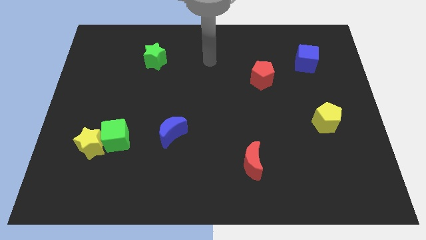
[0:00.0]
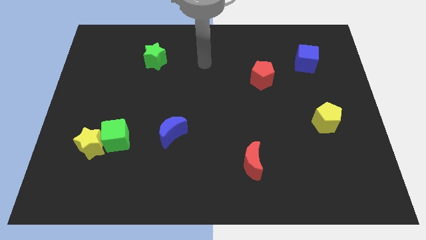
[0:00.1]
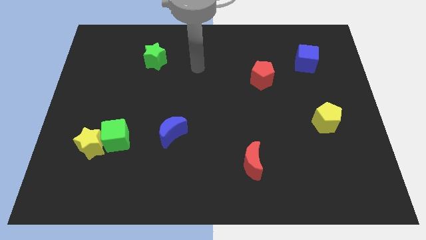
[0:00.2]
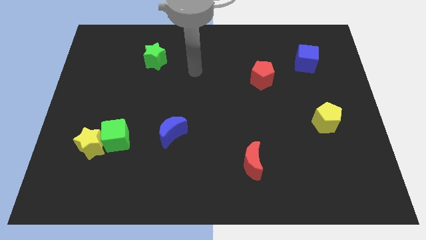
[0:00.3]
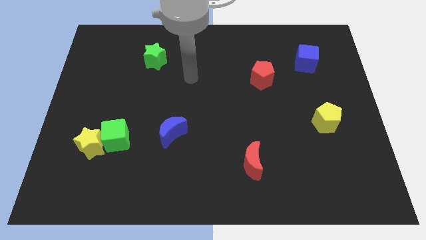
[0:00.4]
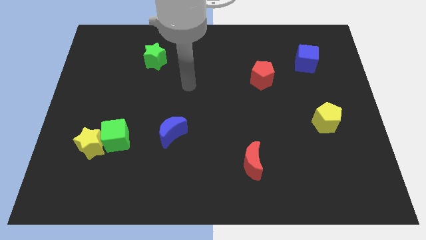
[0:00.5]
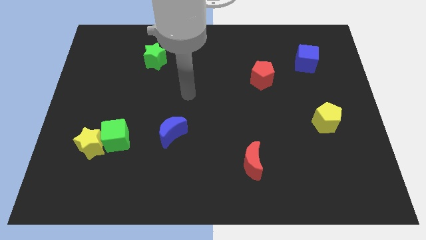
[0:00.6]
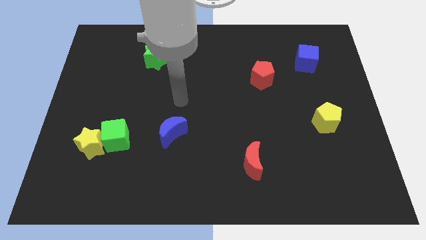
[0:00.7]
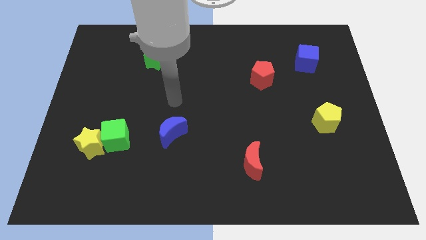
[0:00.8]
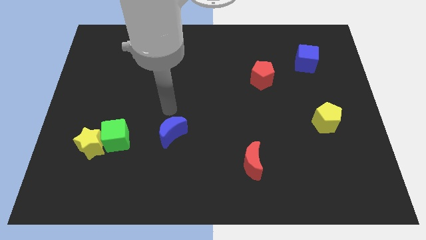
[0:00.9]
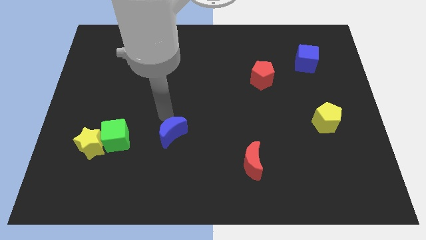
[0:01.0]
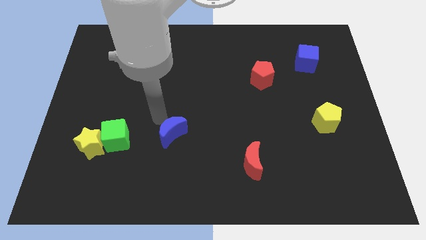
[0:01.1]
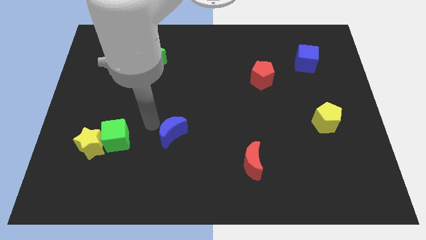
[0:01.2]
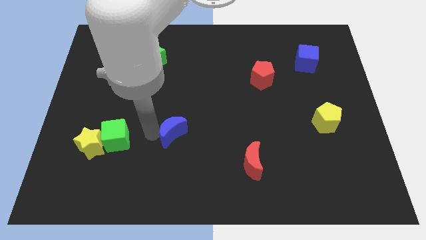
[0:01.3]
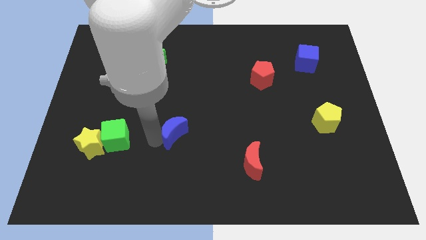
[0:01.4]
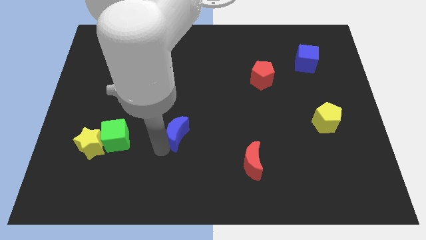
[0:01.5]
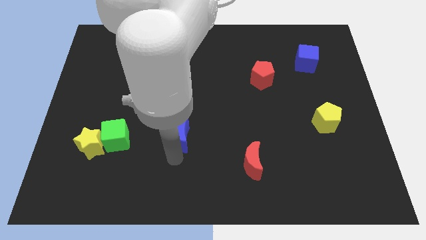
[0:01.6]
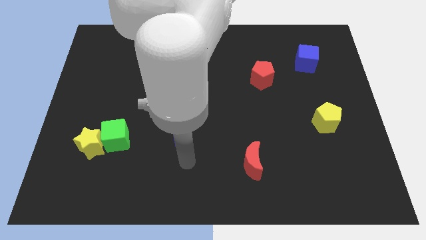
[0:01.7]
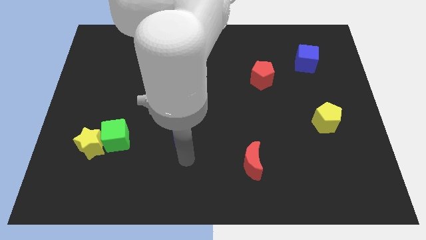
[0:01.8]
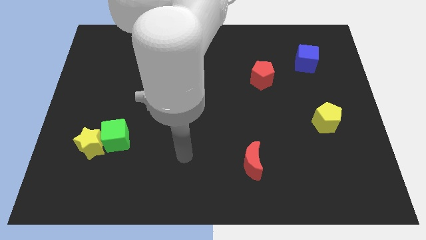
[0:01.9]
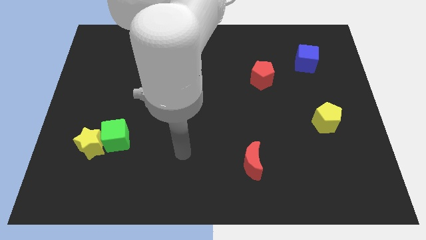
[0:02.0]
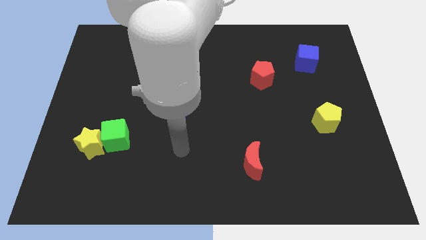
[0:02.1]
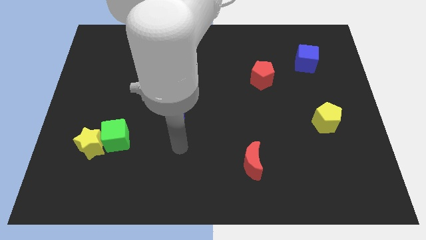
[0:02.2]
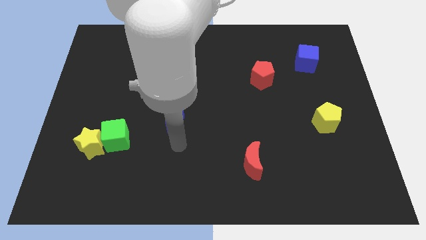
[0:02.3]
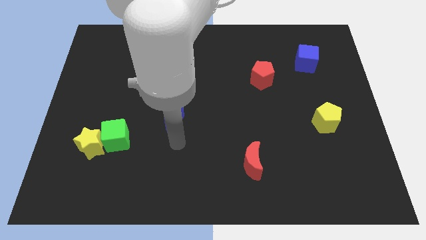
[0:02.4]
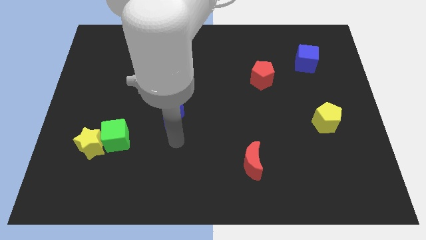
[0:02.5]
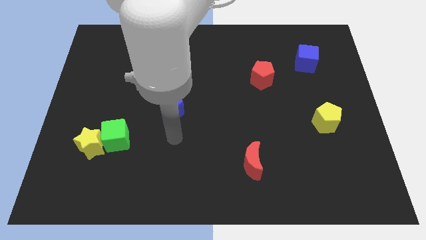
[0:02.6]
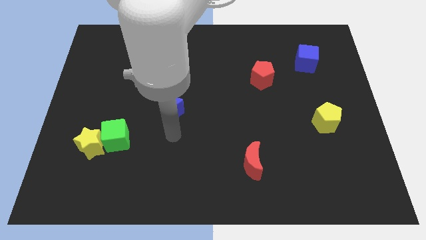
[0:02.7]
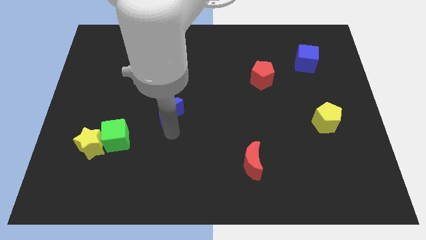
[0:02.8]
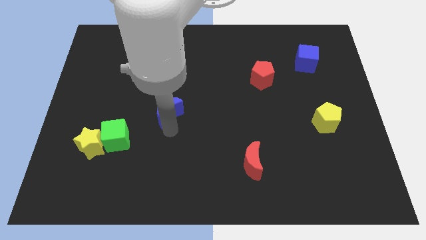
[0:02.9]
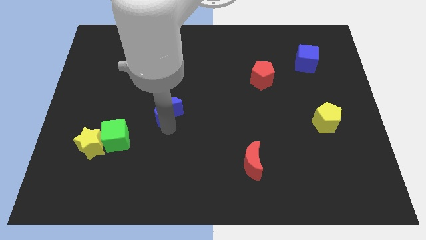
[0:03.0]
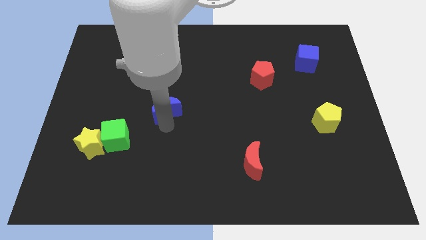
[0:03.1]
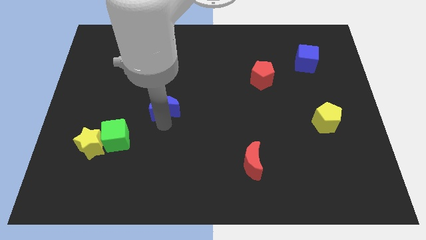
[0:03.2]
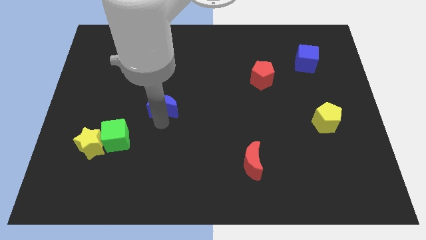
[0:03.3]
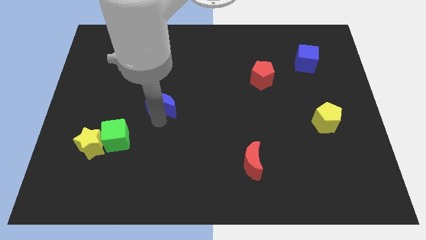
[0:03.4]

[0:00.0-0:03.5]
slide the blue moon a little upwards

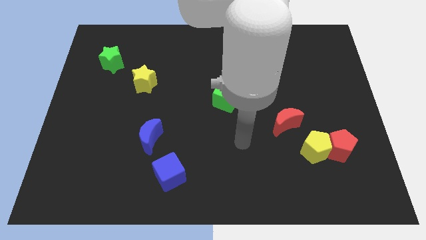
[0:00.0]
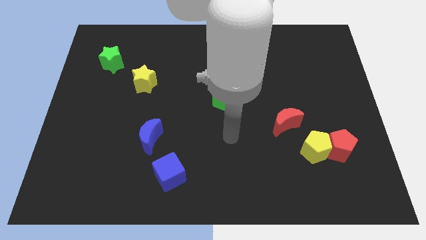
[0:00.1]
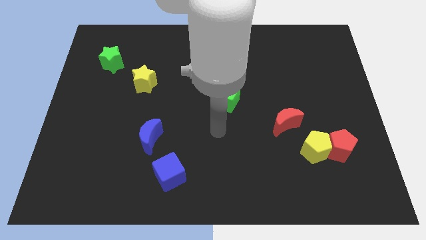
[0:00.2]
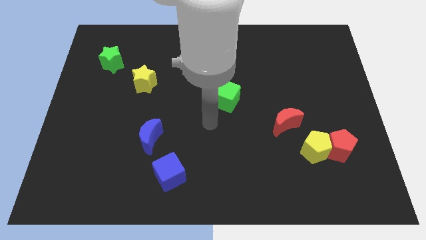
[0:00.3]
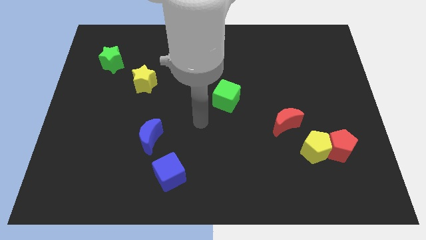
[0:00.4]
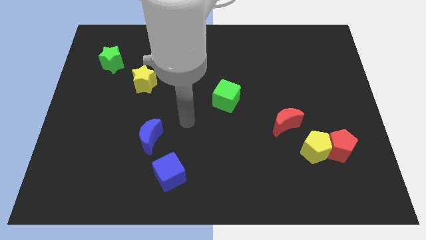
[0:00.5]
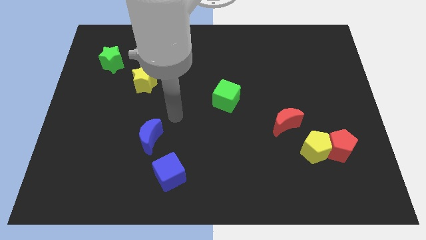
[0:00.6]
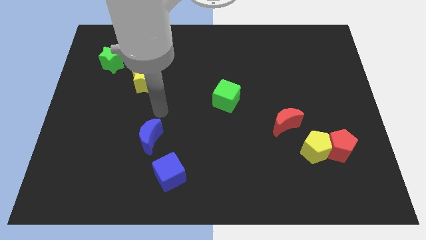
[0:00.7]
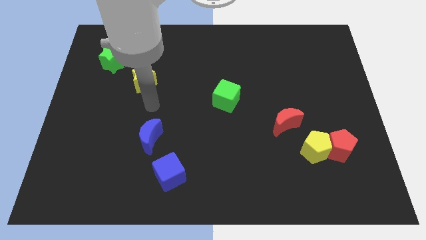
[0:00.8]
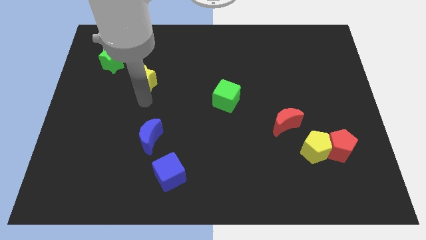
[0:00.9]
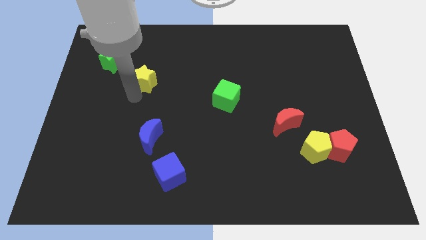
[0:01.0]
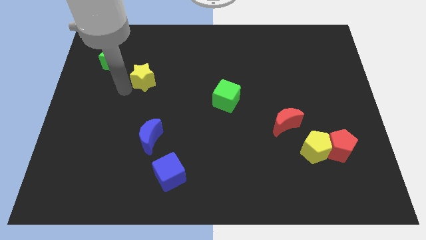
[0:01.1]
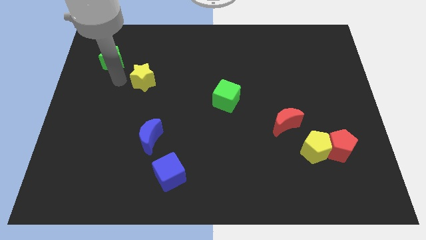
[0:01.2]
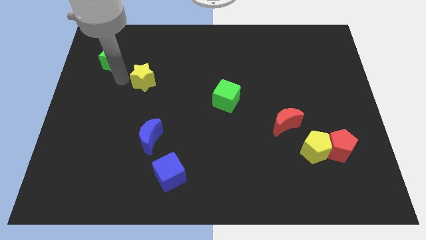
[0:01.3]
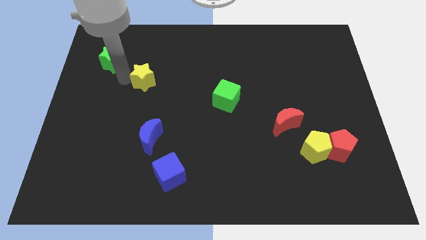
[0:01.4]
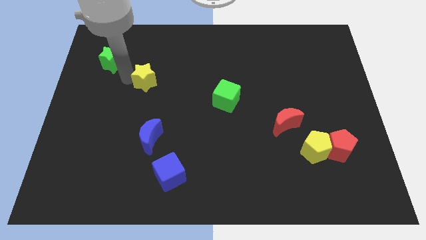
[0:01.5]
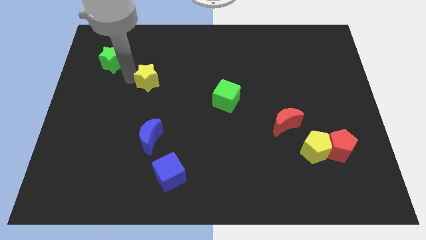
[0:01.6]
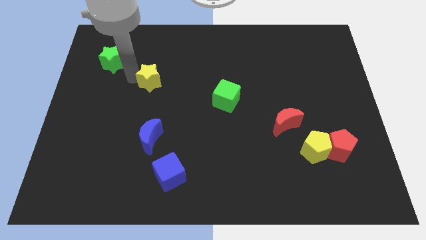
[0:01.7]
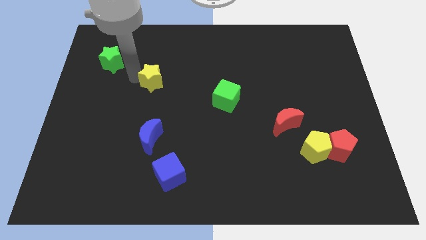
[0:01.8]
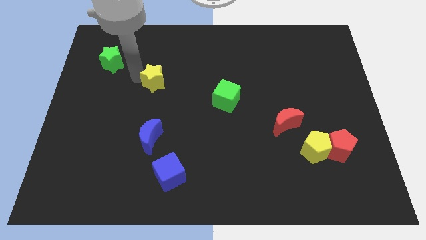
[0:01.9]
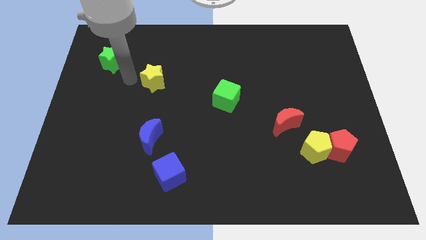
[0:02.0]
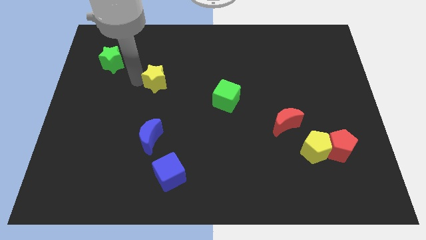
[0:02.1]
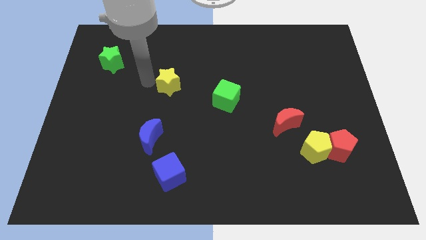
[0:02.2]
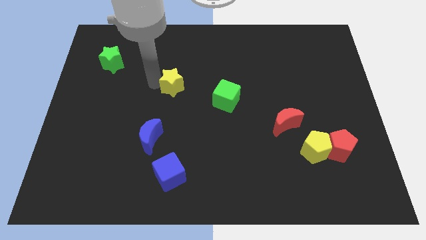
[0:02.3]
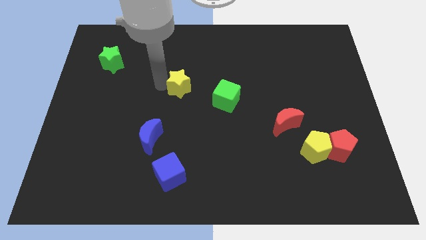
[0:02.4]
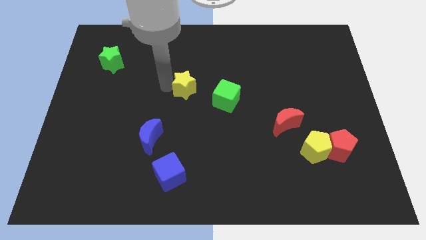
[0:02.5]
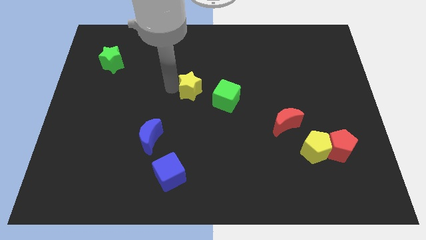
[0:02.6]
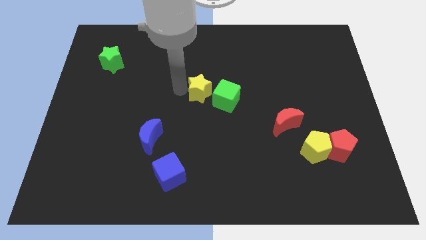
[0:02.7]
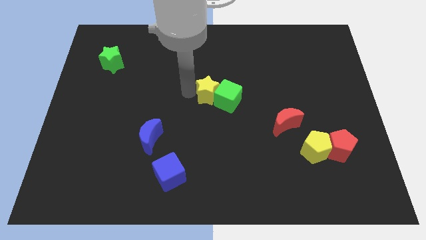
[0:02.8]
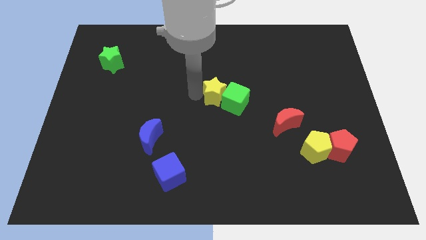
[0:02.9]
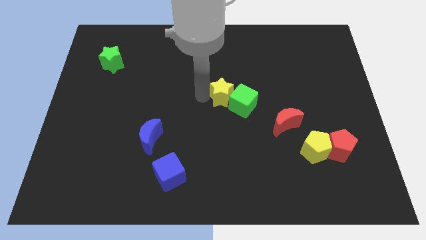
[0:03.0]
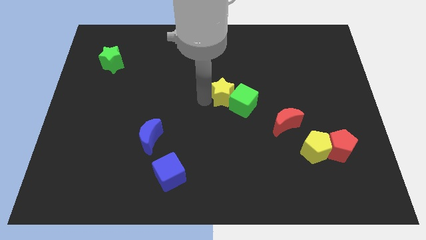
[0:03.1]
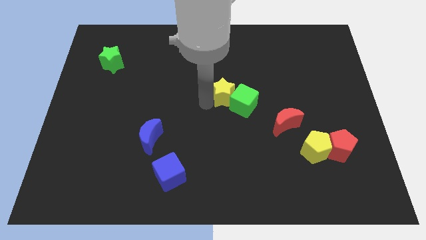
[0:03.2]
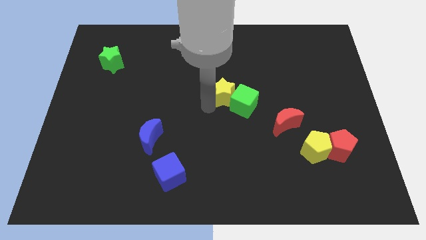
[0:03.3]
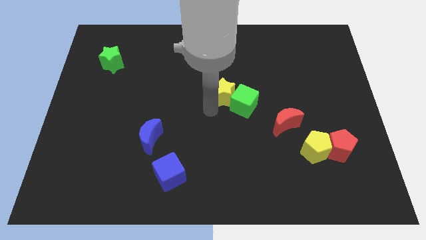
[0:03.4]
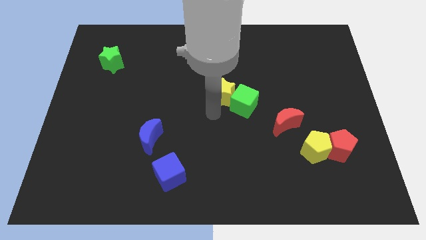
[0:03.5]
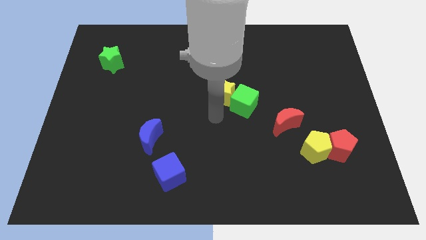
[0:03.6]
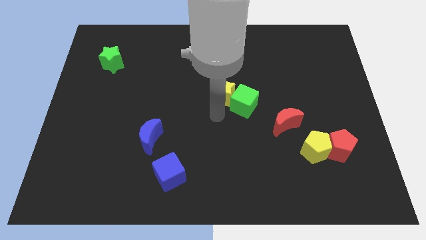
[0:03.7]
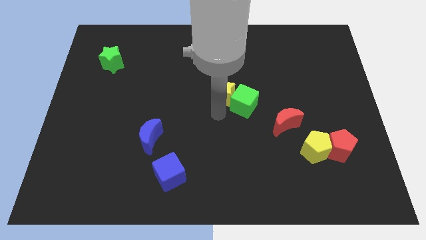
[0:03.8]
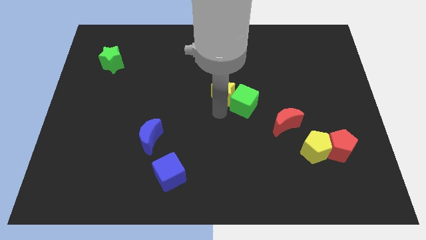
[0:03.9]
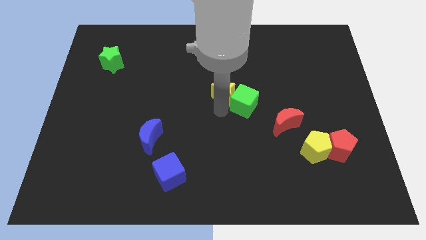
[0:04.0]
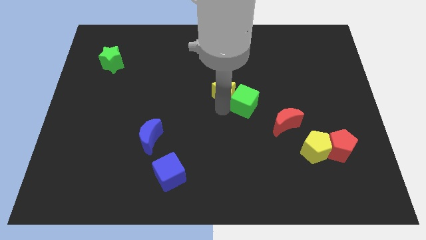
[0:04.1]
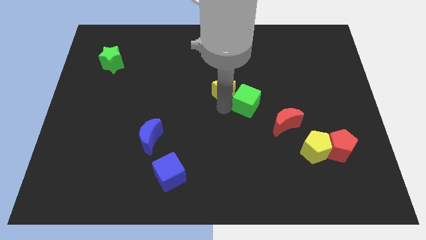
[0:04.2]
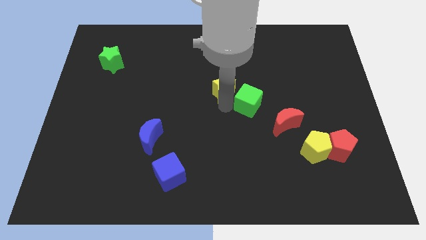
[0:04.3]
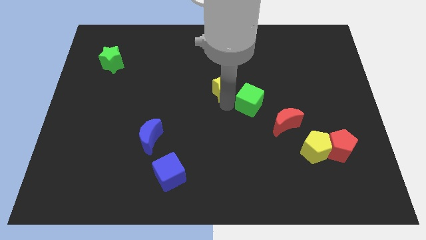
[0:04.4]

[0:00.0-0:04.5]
slide the yellow star to the right
